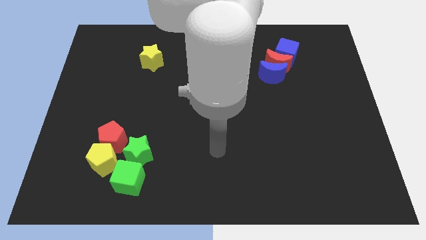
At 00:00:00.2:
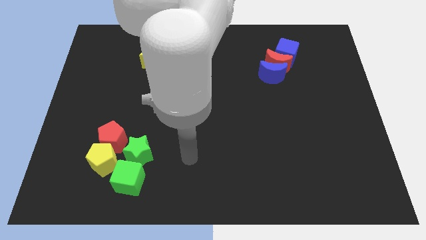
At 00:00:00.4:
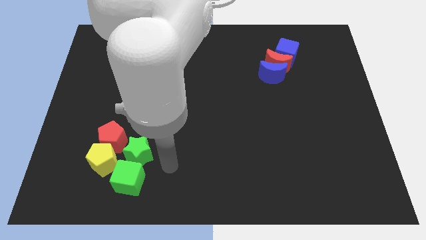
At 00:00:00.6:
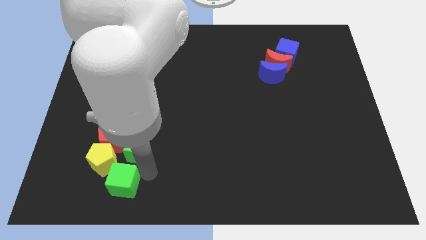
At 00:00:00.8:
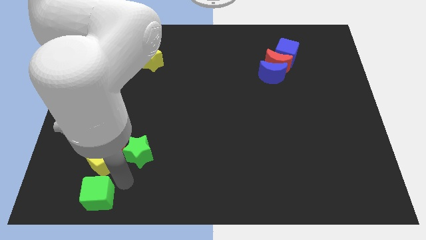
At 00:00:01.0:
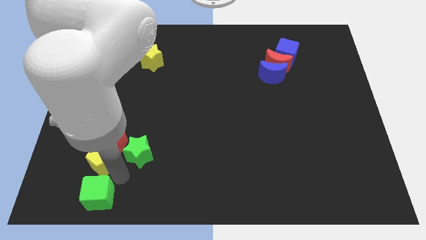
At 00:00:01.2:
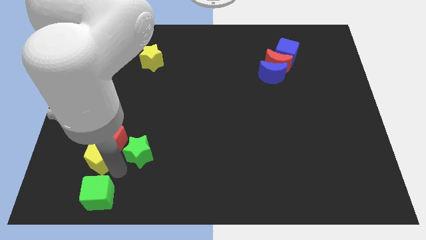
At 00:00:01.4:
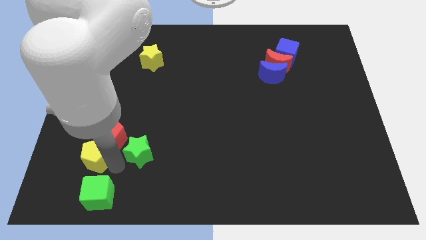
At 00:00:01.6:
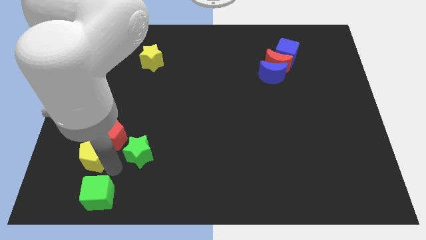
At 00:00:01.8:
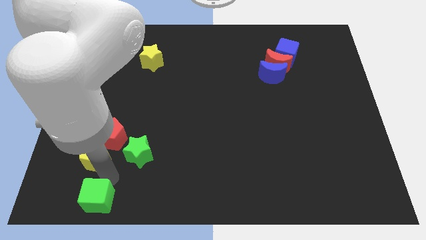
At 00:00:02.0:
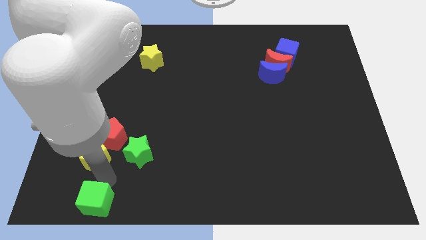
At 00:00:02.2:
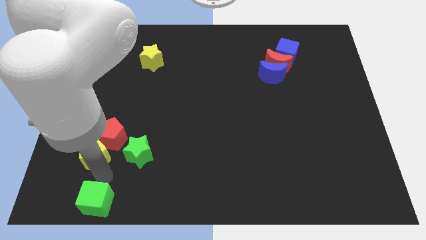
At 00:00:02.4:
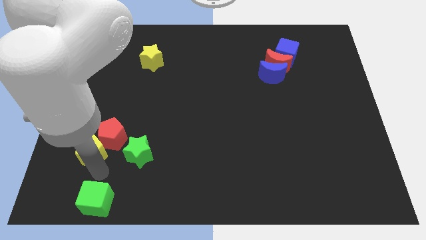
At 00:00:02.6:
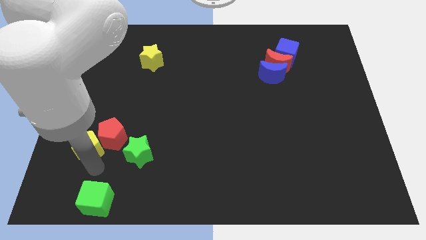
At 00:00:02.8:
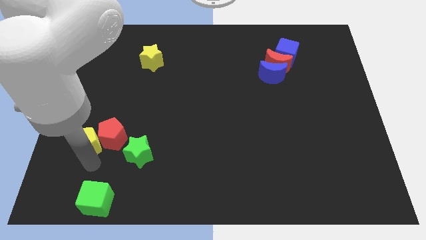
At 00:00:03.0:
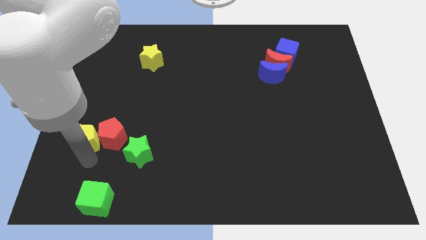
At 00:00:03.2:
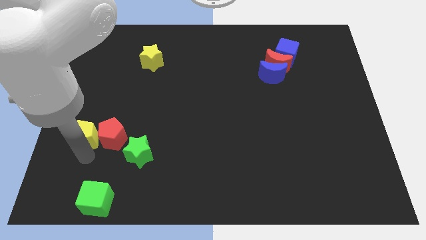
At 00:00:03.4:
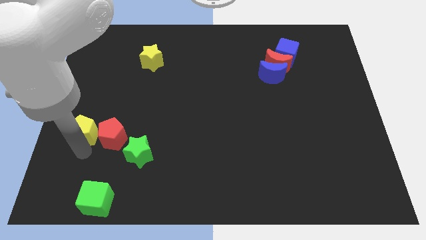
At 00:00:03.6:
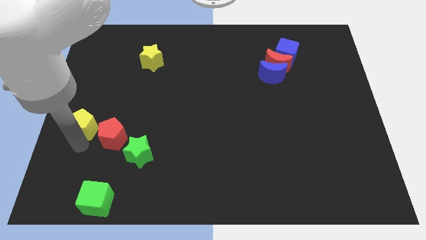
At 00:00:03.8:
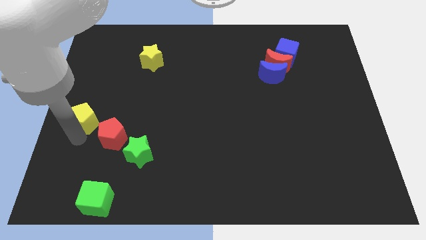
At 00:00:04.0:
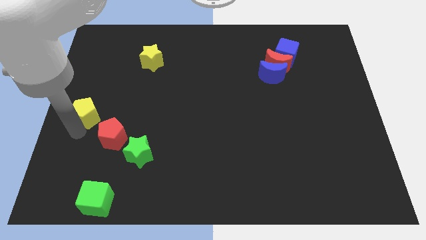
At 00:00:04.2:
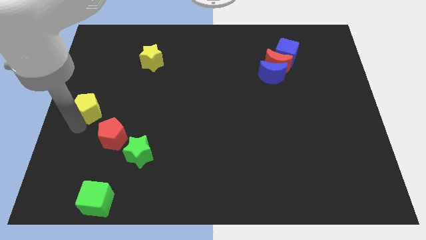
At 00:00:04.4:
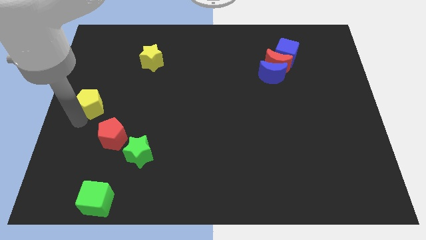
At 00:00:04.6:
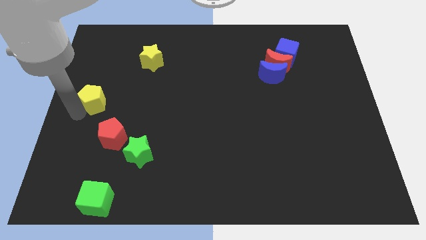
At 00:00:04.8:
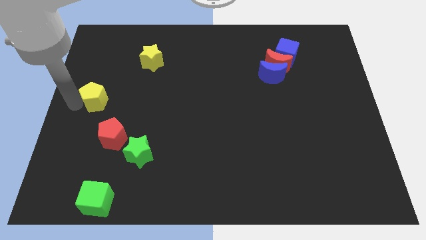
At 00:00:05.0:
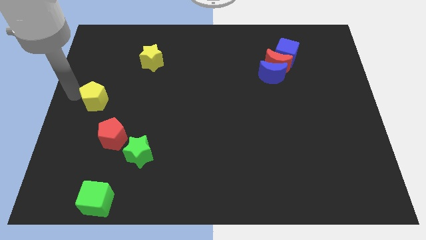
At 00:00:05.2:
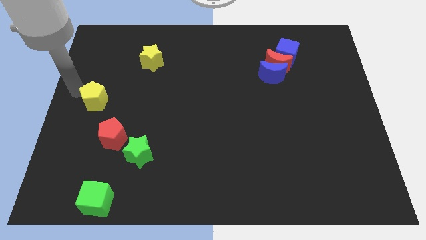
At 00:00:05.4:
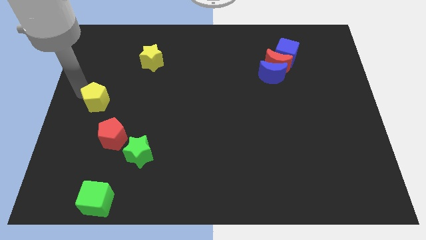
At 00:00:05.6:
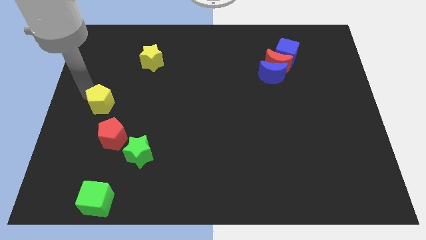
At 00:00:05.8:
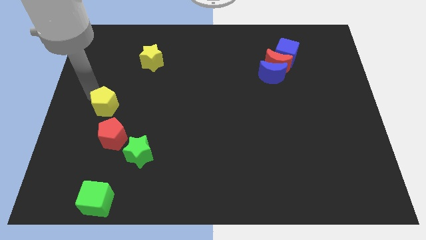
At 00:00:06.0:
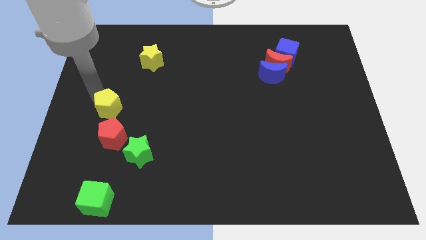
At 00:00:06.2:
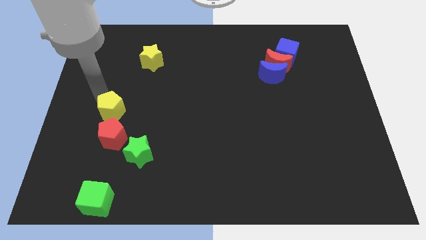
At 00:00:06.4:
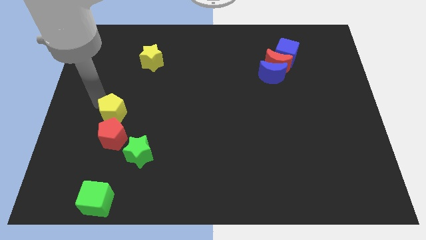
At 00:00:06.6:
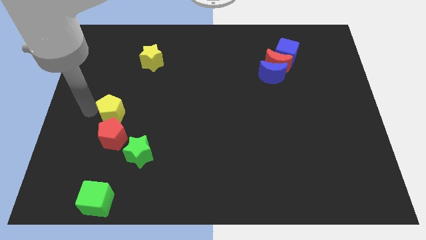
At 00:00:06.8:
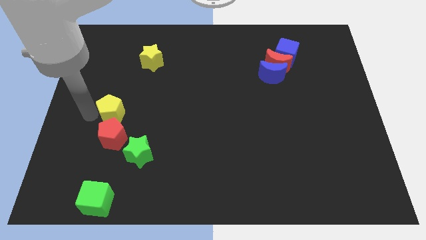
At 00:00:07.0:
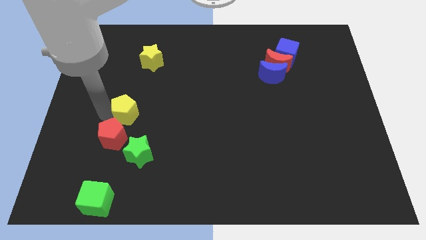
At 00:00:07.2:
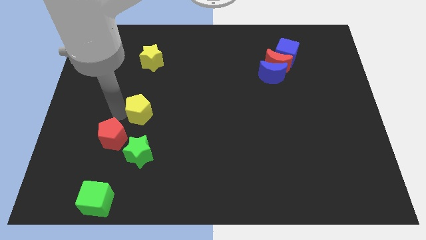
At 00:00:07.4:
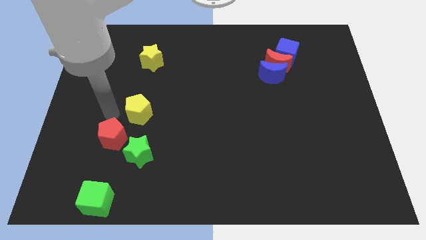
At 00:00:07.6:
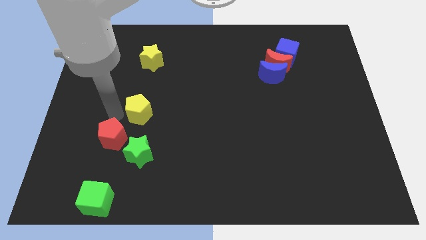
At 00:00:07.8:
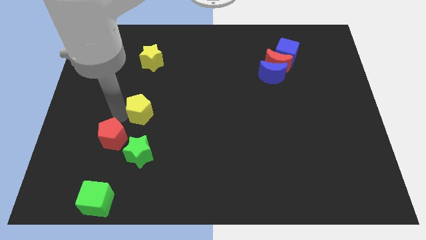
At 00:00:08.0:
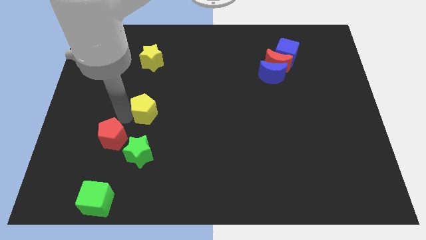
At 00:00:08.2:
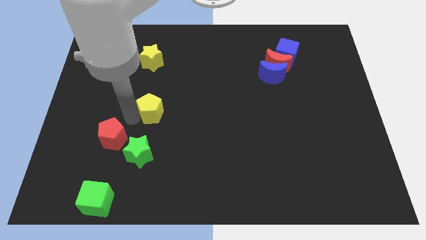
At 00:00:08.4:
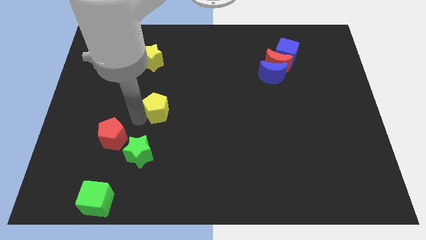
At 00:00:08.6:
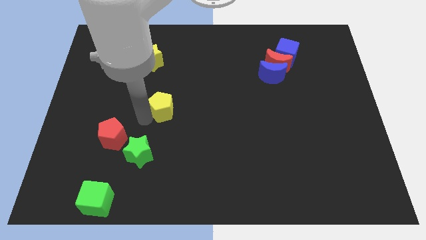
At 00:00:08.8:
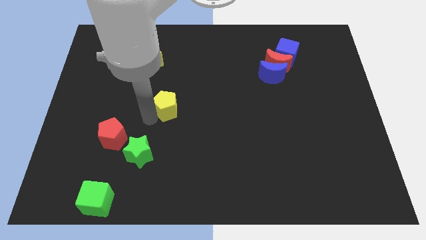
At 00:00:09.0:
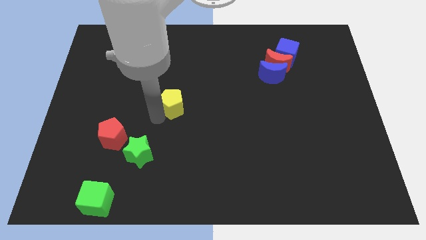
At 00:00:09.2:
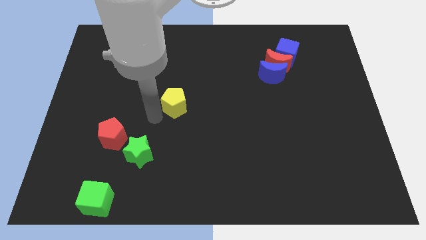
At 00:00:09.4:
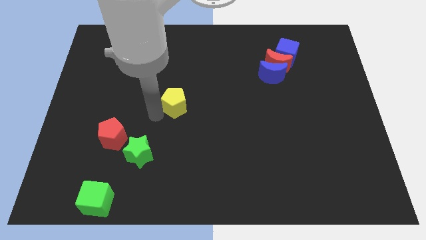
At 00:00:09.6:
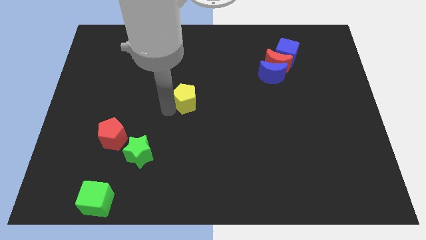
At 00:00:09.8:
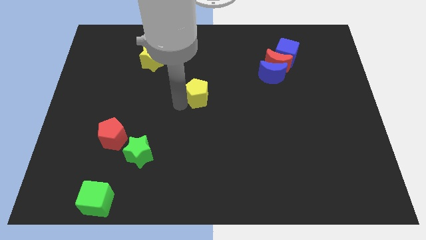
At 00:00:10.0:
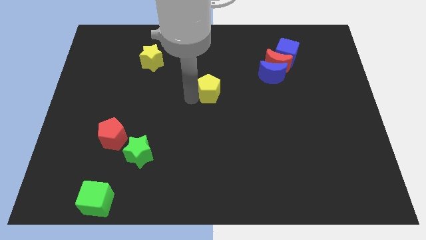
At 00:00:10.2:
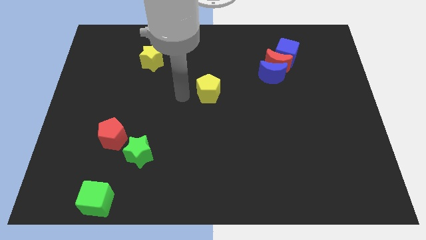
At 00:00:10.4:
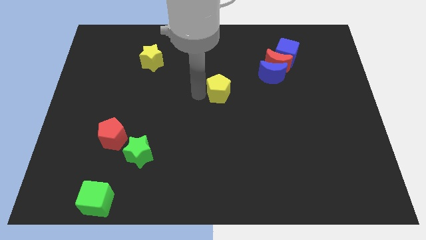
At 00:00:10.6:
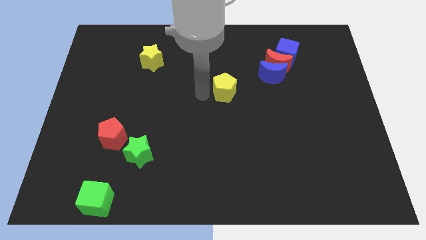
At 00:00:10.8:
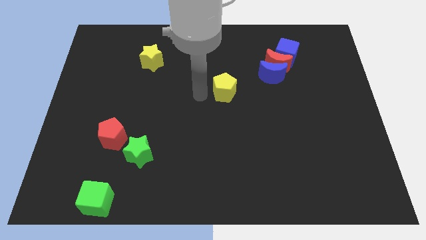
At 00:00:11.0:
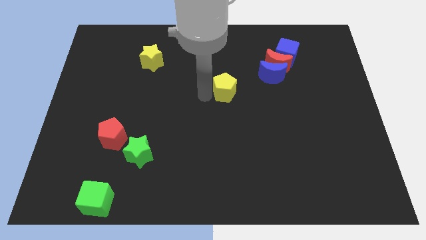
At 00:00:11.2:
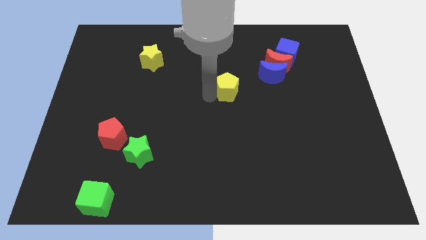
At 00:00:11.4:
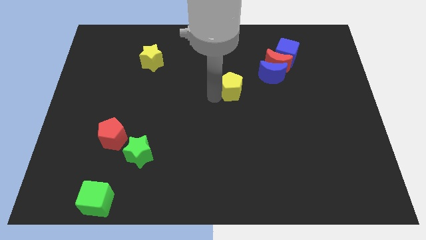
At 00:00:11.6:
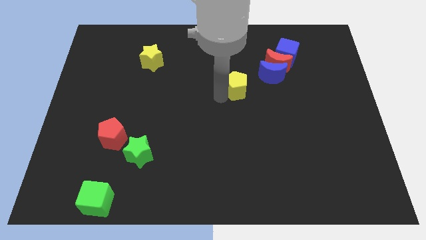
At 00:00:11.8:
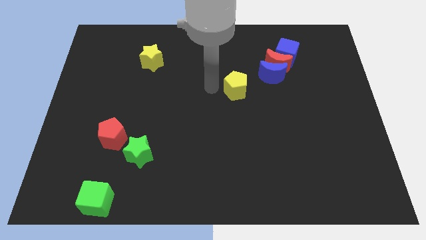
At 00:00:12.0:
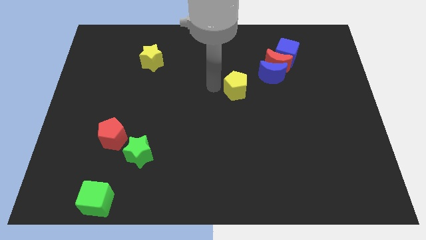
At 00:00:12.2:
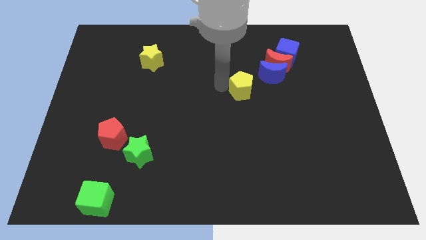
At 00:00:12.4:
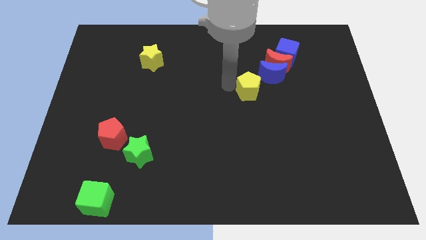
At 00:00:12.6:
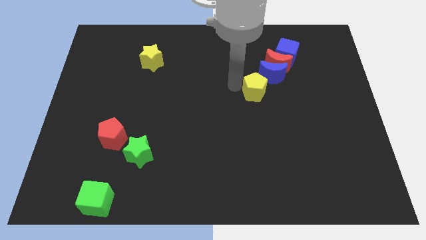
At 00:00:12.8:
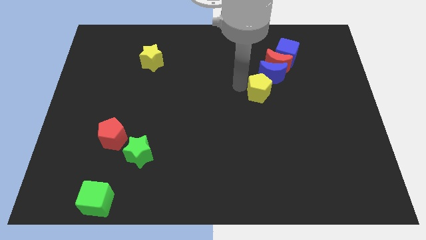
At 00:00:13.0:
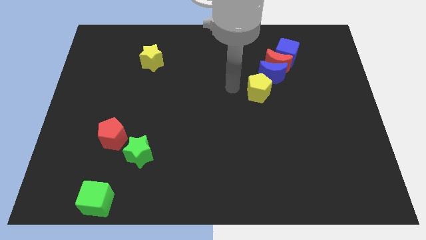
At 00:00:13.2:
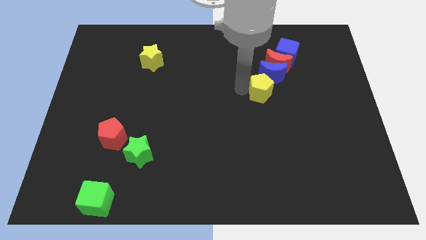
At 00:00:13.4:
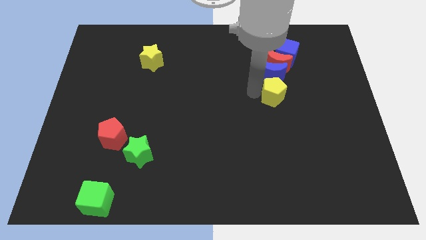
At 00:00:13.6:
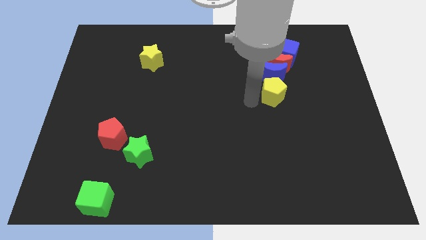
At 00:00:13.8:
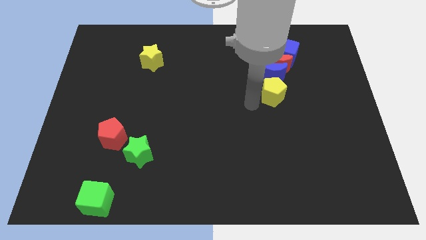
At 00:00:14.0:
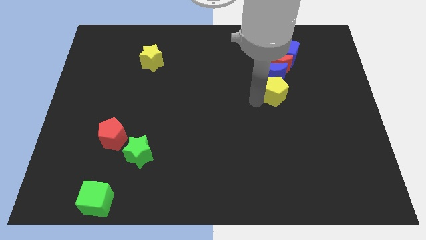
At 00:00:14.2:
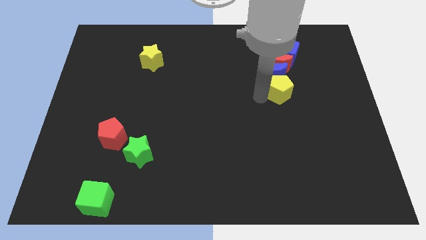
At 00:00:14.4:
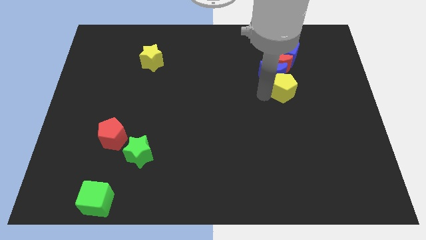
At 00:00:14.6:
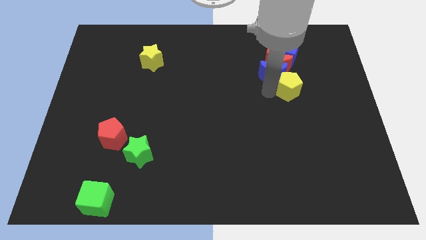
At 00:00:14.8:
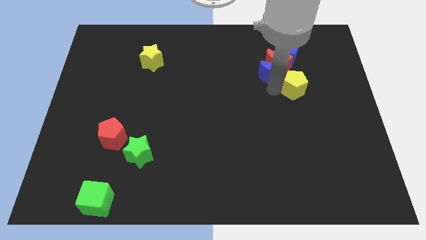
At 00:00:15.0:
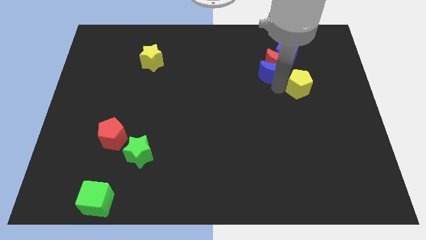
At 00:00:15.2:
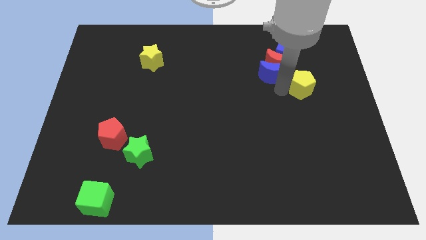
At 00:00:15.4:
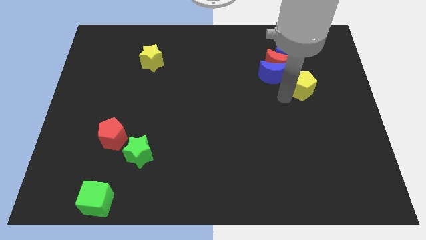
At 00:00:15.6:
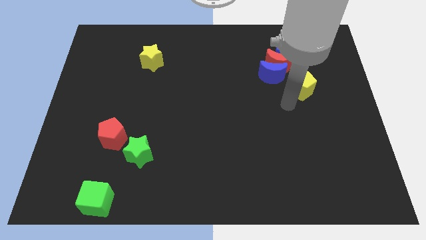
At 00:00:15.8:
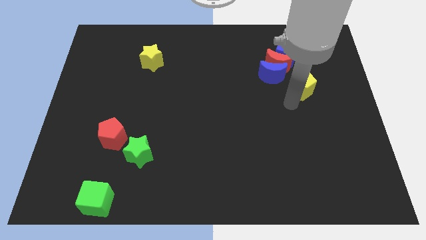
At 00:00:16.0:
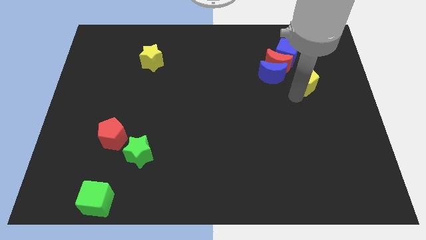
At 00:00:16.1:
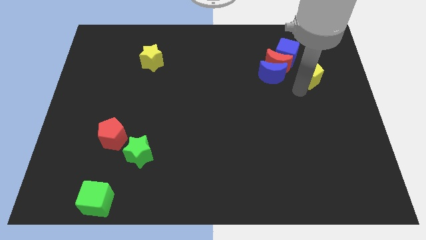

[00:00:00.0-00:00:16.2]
put the yellow pentagon to the right of the red moon
